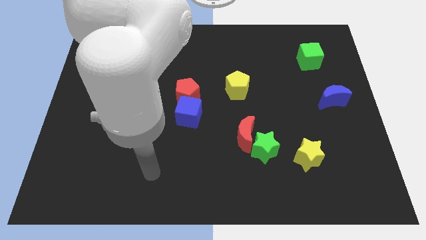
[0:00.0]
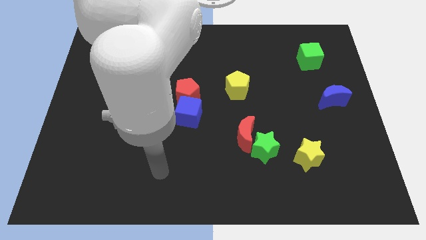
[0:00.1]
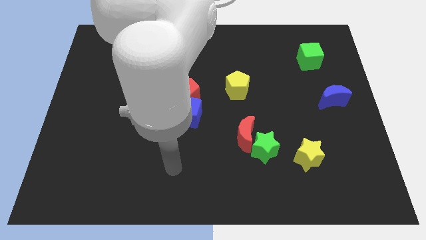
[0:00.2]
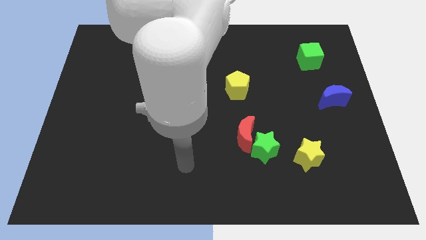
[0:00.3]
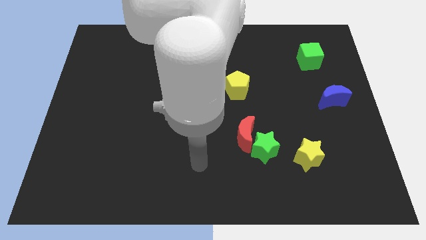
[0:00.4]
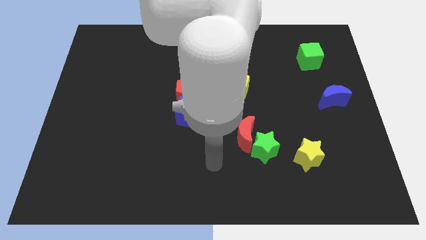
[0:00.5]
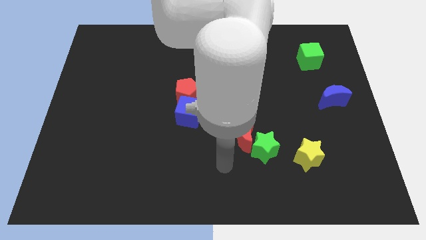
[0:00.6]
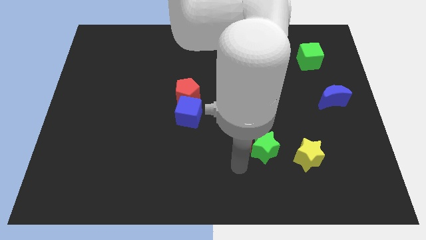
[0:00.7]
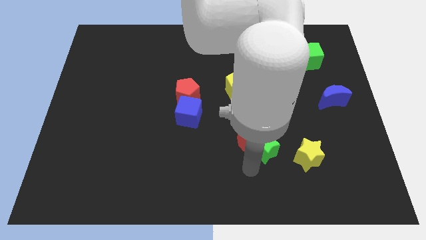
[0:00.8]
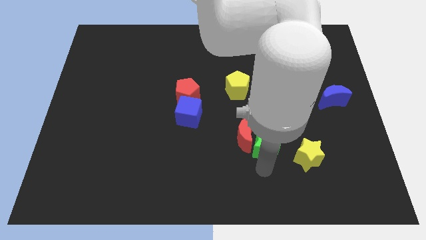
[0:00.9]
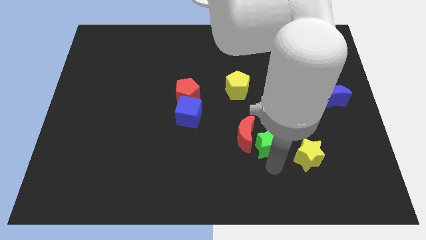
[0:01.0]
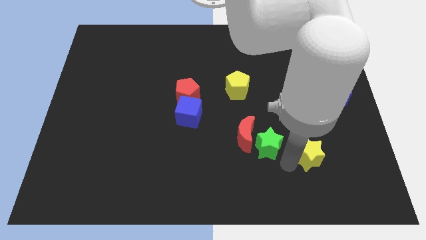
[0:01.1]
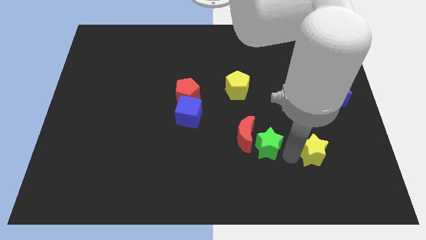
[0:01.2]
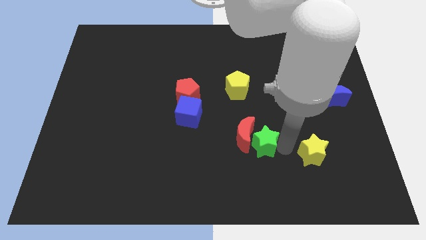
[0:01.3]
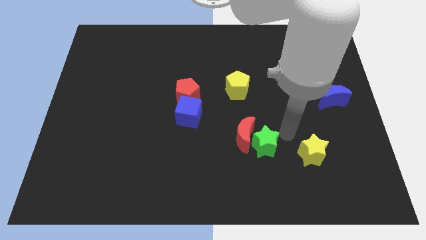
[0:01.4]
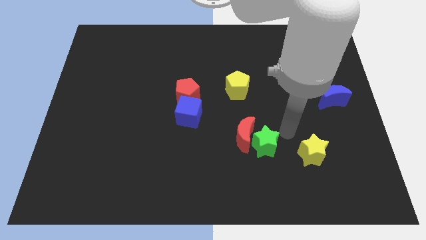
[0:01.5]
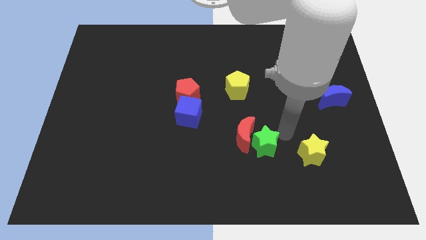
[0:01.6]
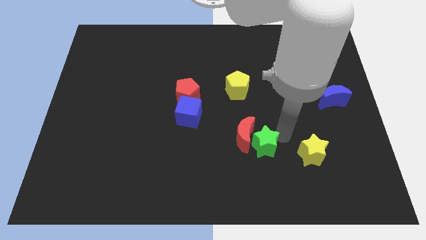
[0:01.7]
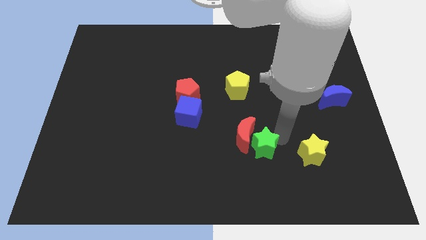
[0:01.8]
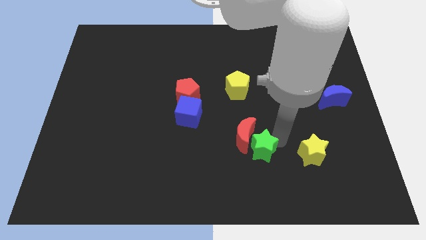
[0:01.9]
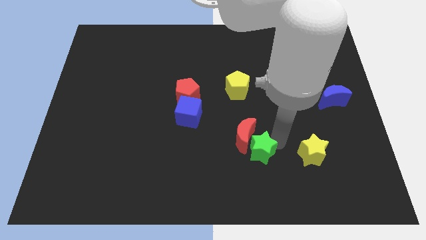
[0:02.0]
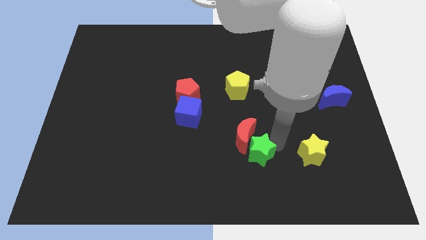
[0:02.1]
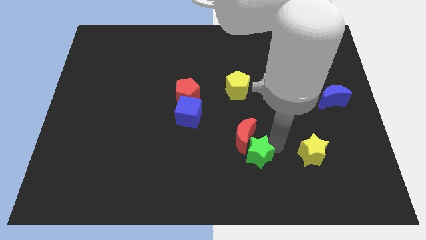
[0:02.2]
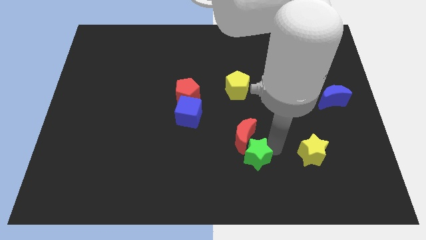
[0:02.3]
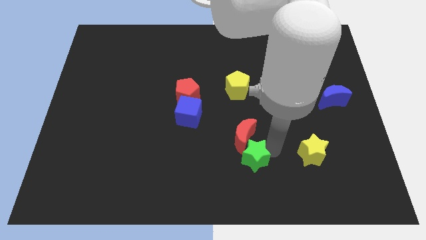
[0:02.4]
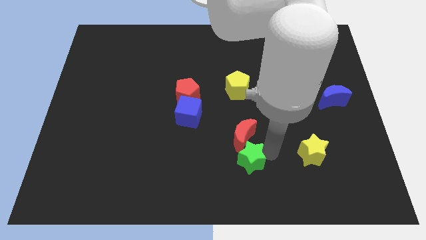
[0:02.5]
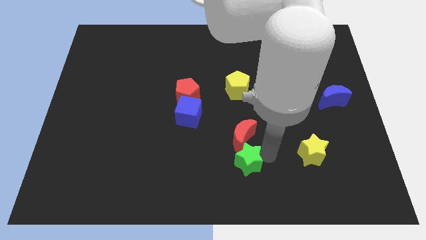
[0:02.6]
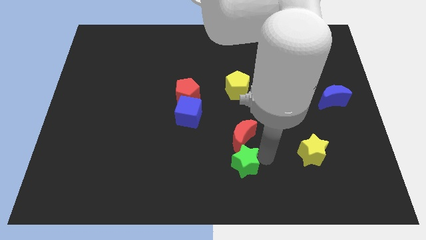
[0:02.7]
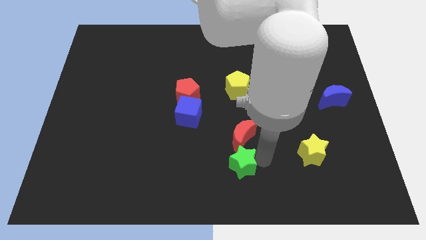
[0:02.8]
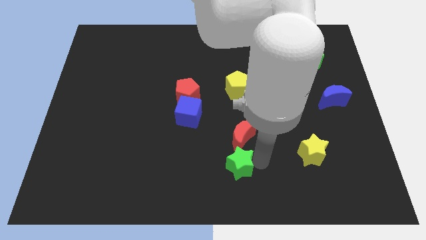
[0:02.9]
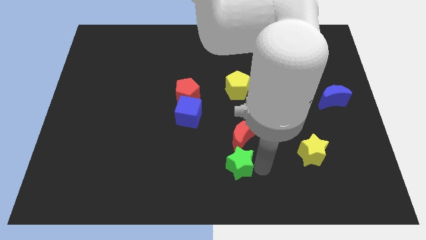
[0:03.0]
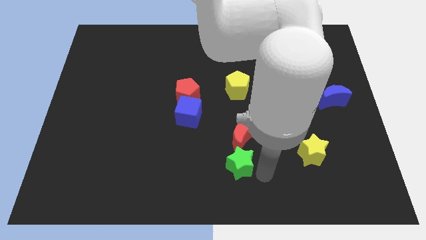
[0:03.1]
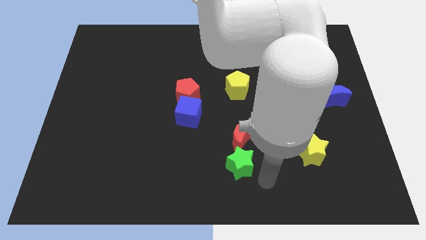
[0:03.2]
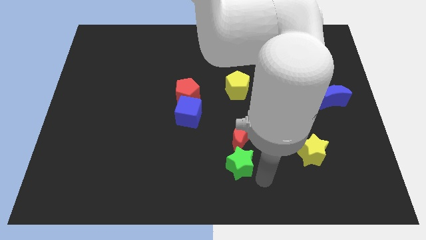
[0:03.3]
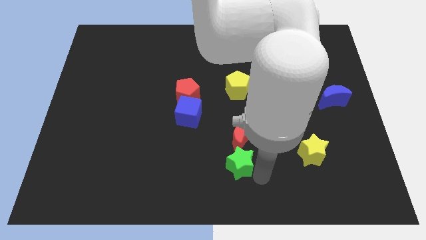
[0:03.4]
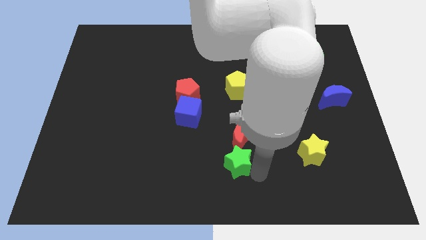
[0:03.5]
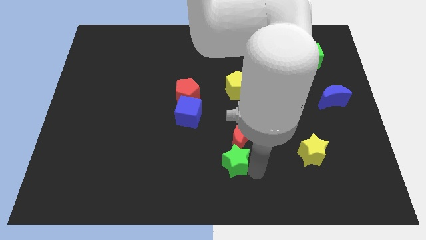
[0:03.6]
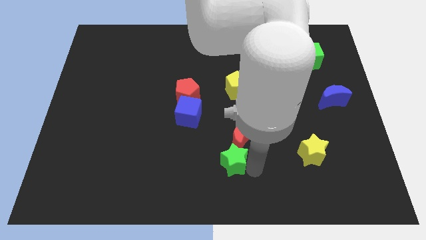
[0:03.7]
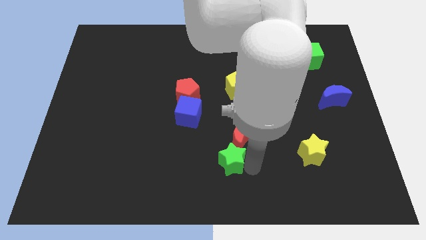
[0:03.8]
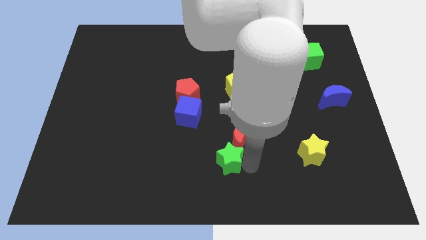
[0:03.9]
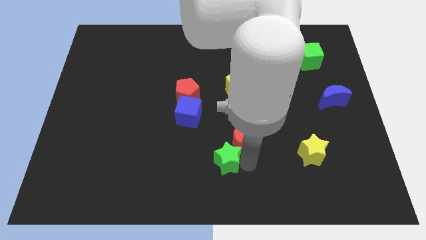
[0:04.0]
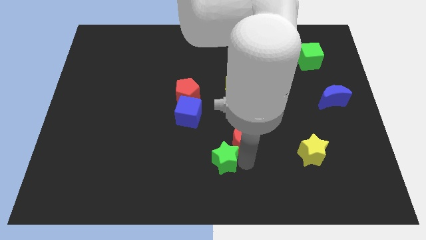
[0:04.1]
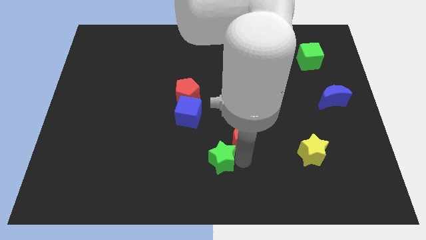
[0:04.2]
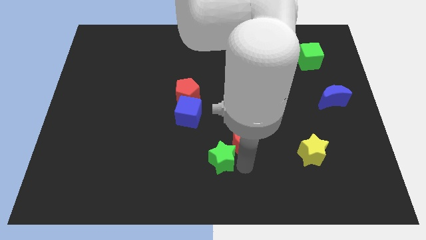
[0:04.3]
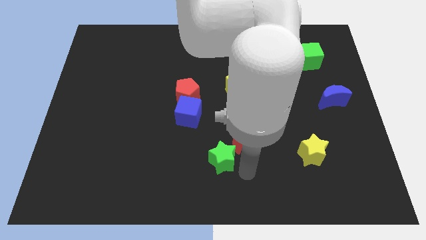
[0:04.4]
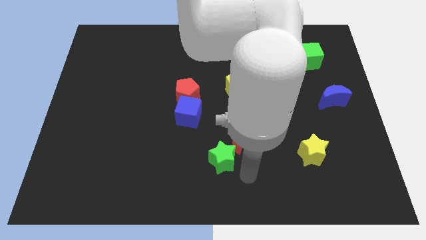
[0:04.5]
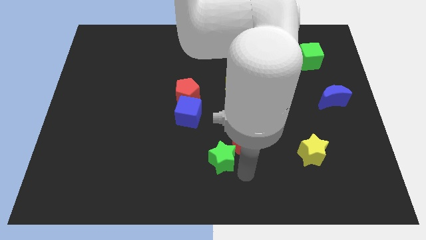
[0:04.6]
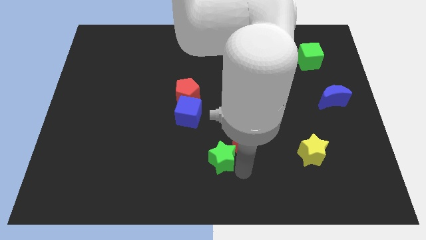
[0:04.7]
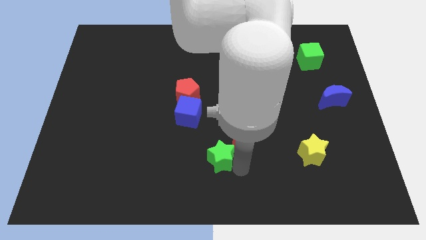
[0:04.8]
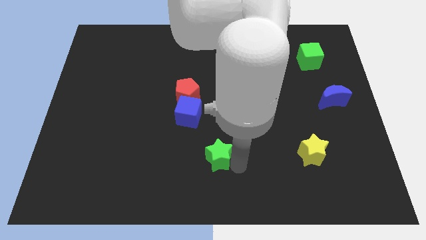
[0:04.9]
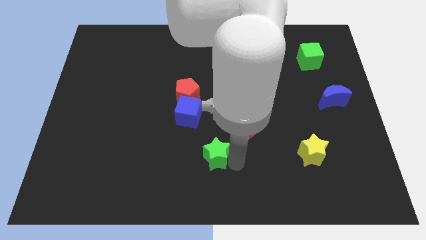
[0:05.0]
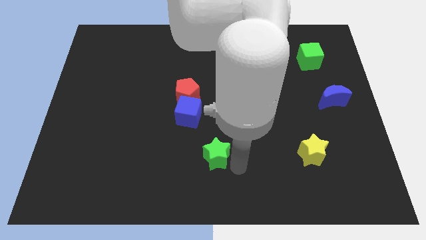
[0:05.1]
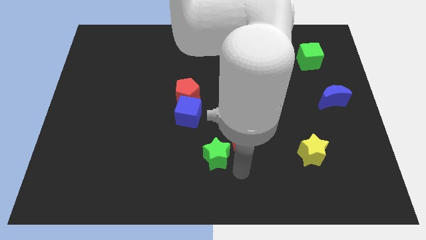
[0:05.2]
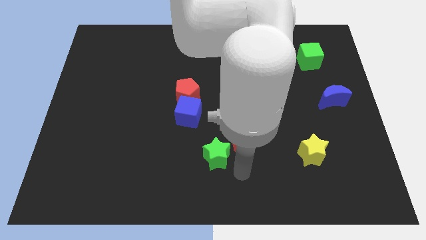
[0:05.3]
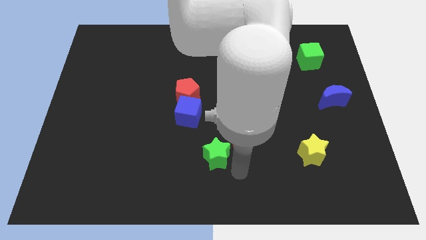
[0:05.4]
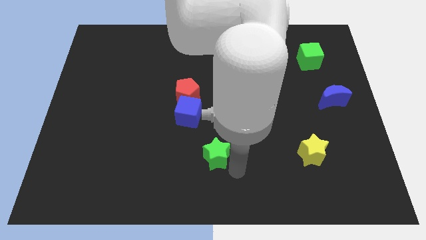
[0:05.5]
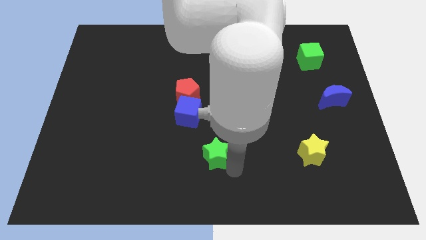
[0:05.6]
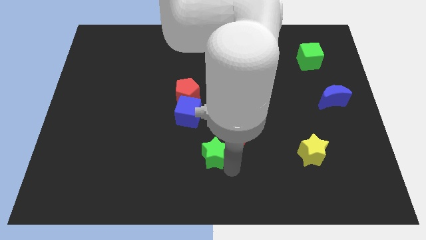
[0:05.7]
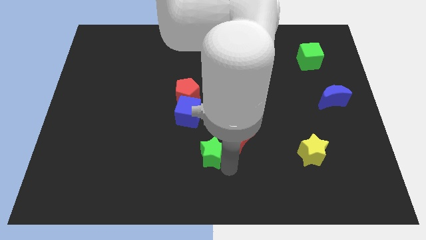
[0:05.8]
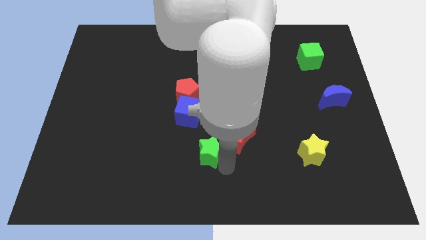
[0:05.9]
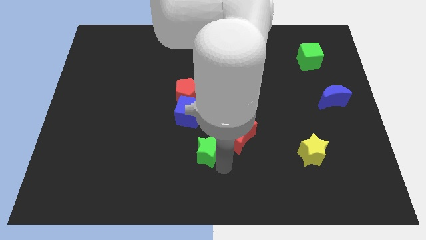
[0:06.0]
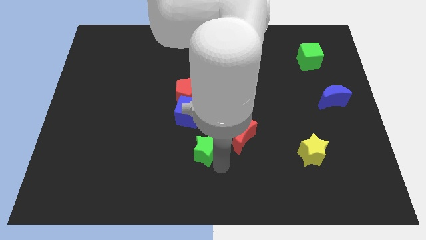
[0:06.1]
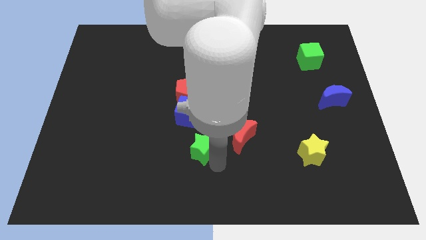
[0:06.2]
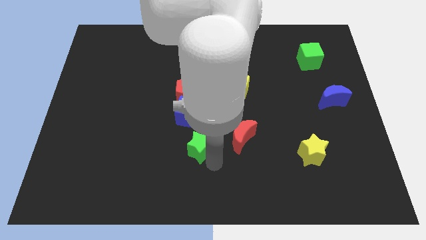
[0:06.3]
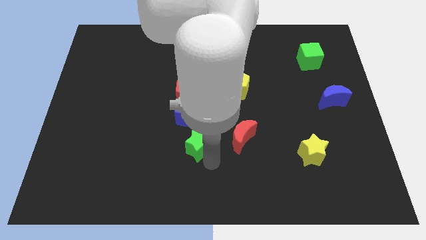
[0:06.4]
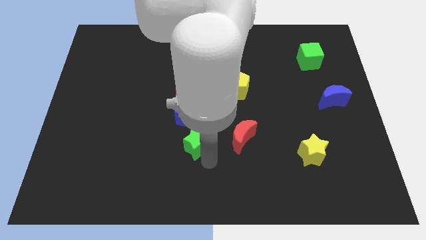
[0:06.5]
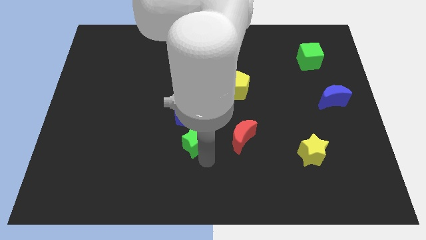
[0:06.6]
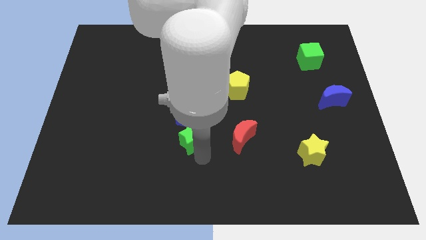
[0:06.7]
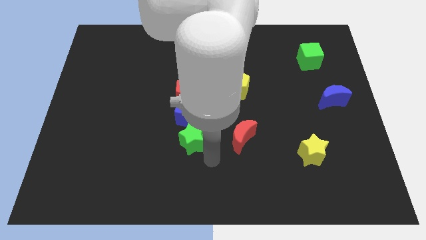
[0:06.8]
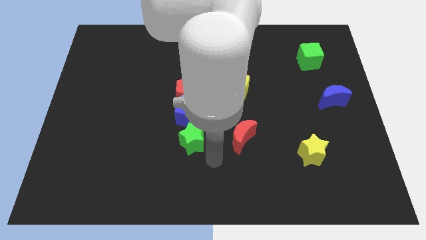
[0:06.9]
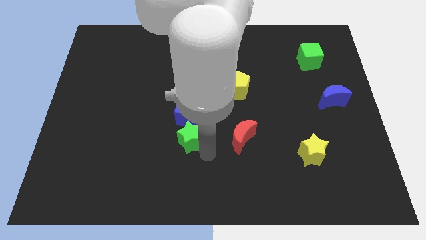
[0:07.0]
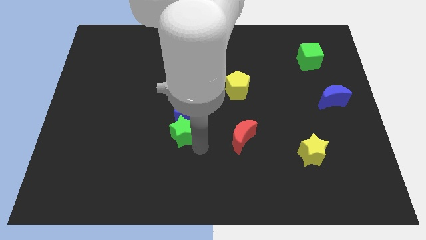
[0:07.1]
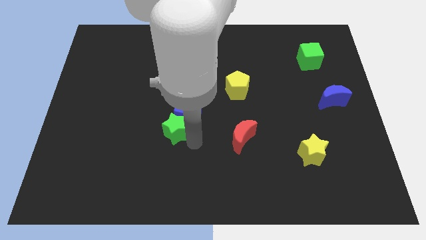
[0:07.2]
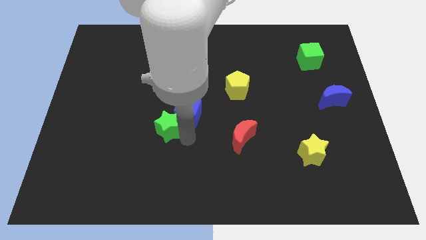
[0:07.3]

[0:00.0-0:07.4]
slide the green star diagonally down and to the left of the red pentagon
